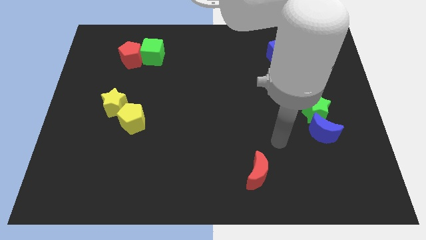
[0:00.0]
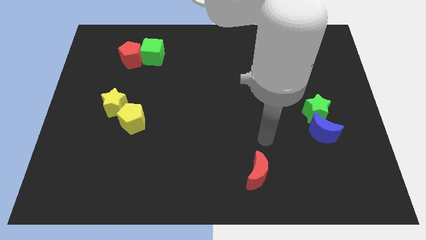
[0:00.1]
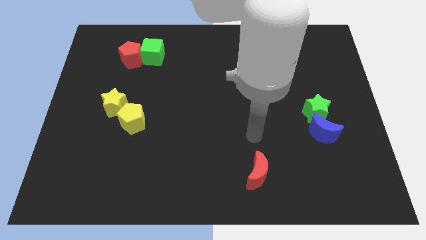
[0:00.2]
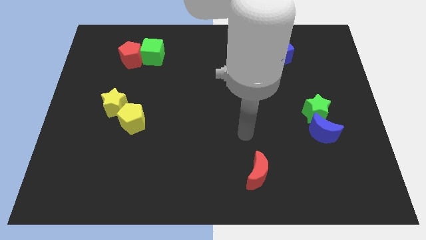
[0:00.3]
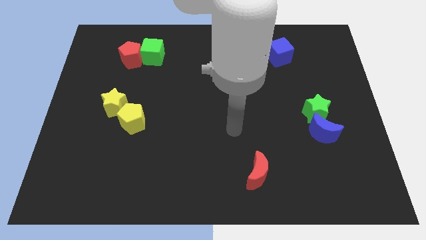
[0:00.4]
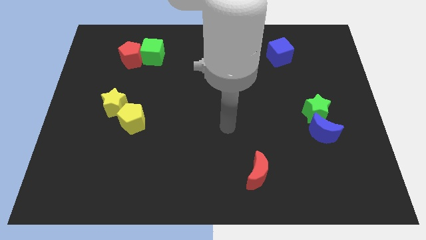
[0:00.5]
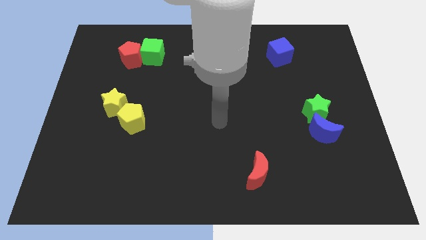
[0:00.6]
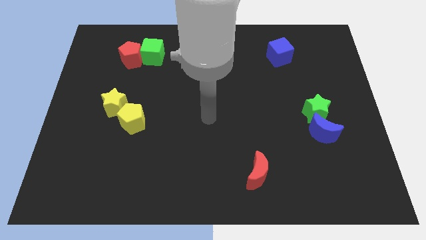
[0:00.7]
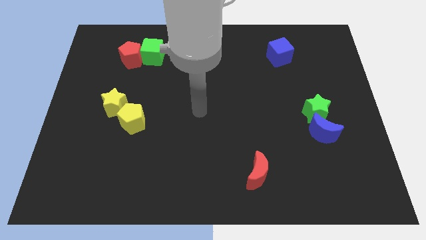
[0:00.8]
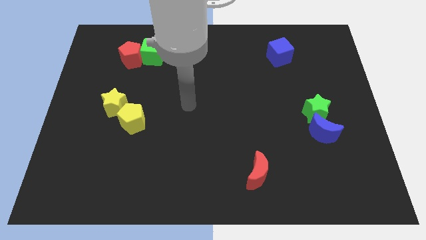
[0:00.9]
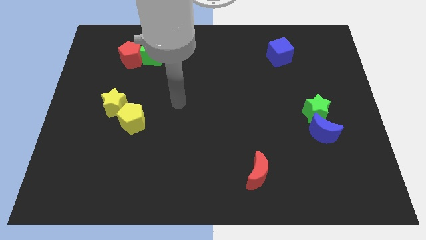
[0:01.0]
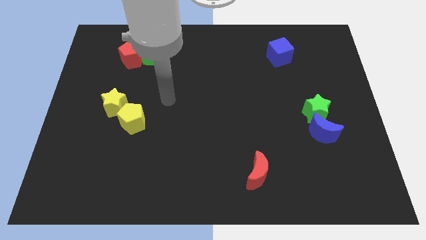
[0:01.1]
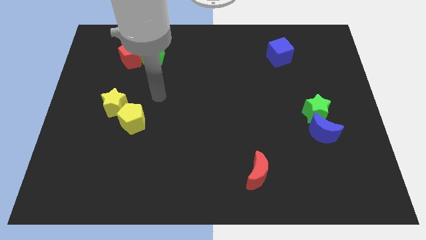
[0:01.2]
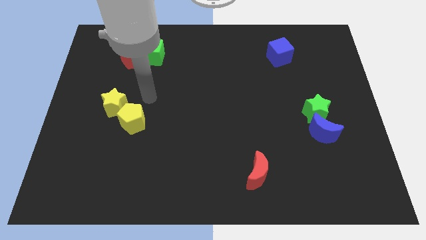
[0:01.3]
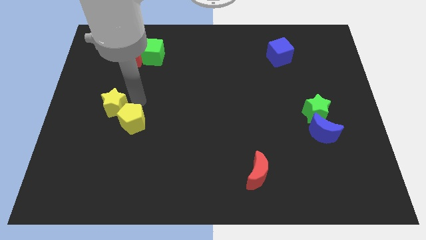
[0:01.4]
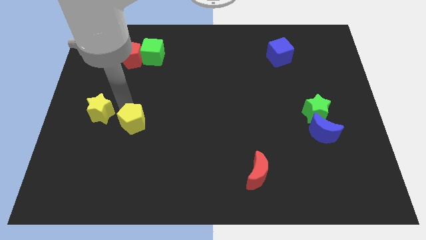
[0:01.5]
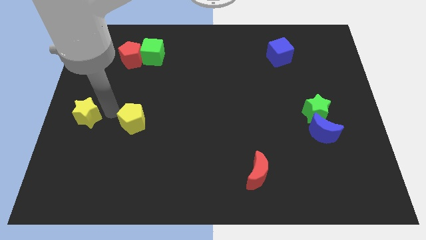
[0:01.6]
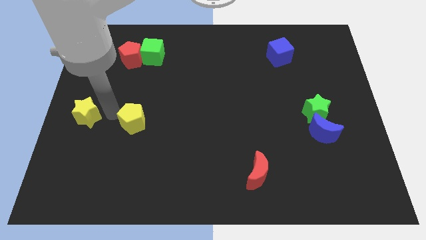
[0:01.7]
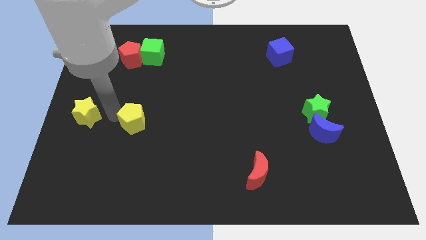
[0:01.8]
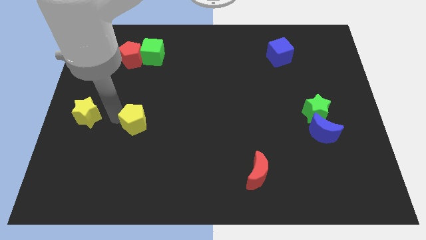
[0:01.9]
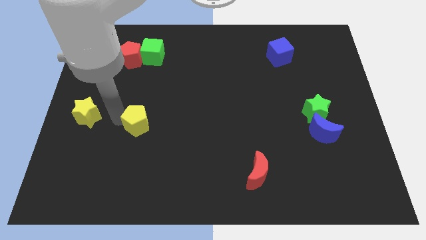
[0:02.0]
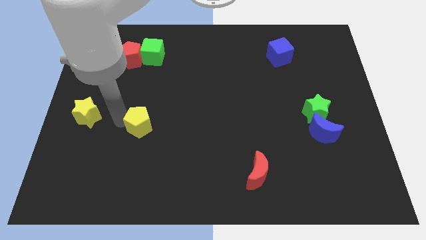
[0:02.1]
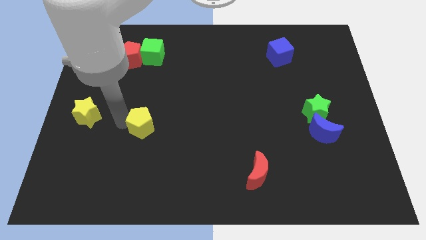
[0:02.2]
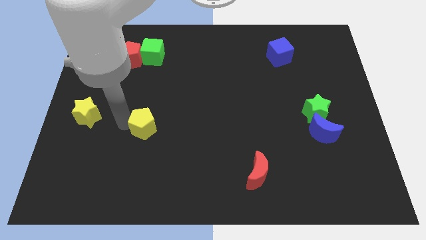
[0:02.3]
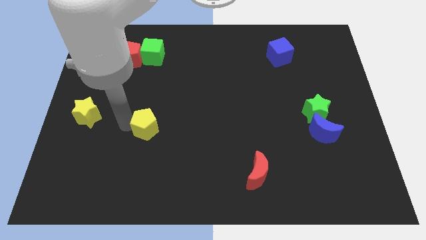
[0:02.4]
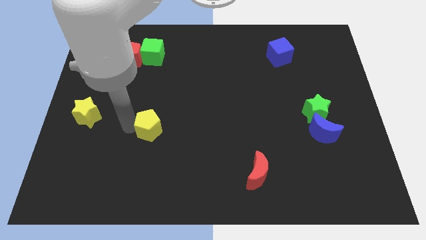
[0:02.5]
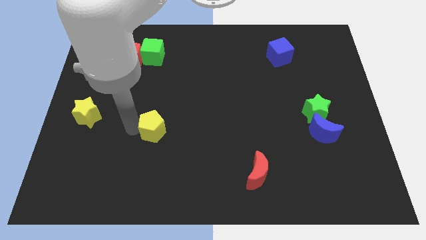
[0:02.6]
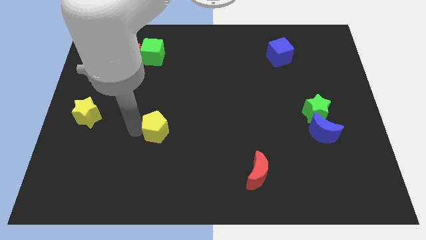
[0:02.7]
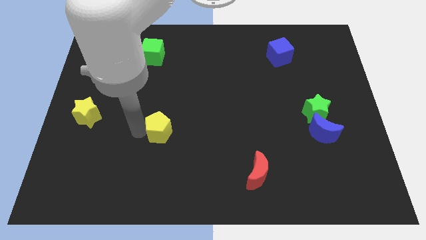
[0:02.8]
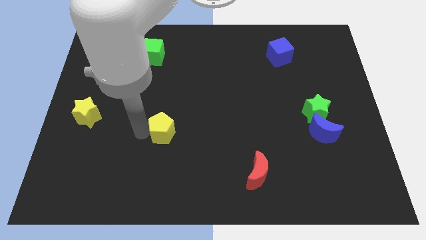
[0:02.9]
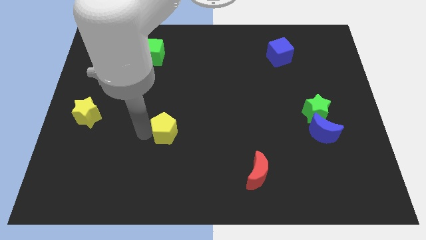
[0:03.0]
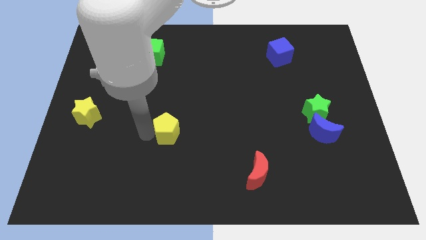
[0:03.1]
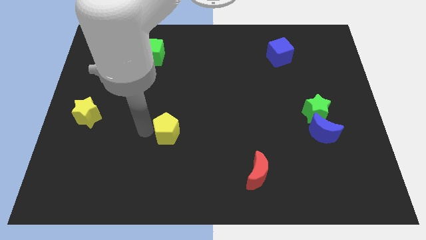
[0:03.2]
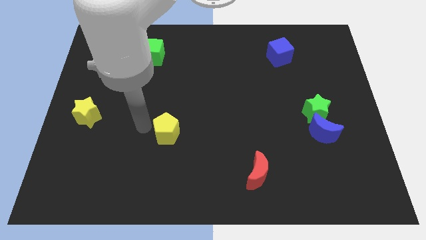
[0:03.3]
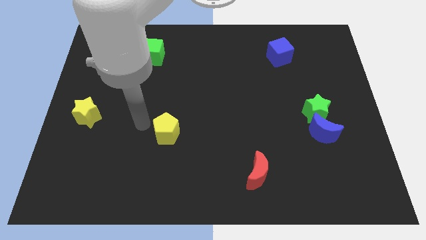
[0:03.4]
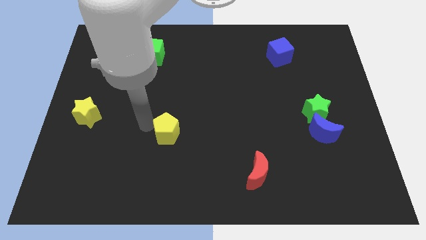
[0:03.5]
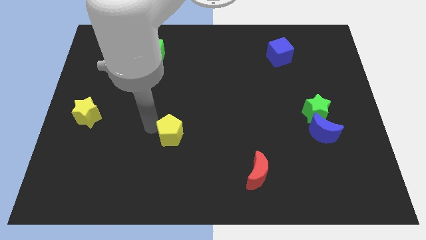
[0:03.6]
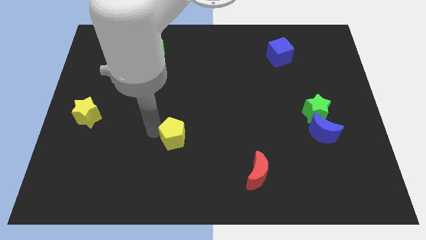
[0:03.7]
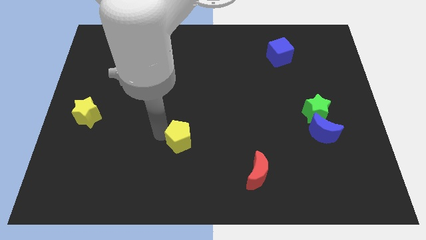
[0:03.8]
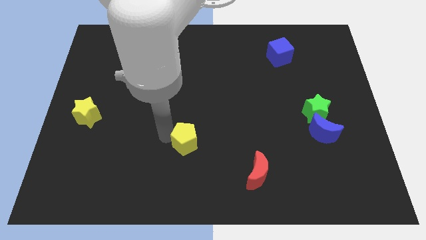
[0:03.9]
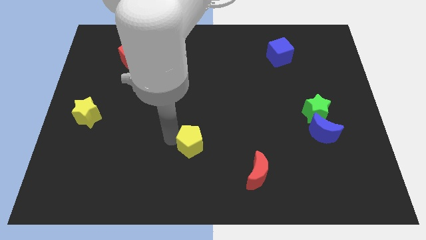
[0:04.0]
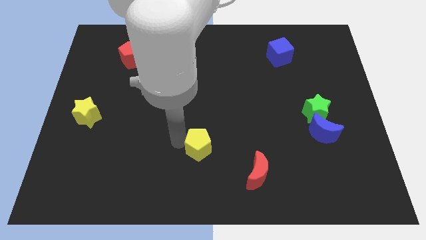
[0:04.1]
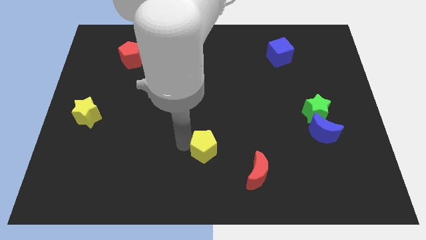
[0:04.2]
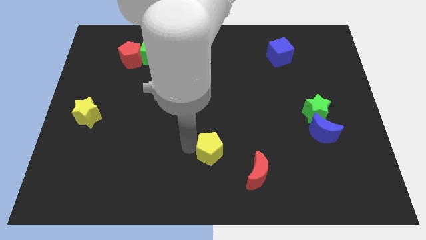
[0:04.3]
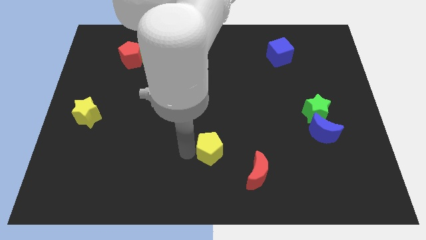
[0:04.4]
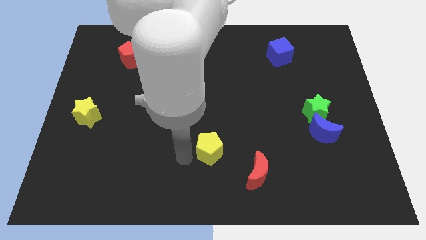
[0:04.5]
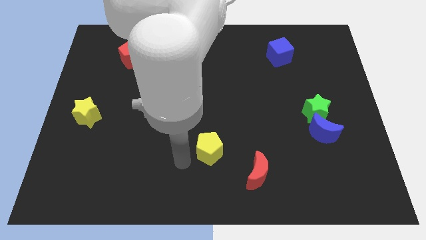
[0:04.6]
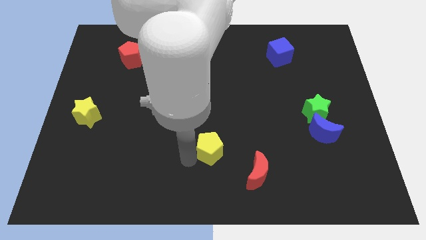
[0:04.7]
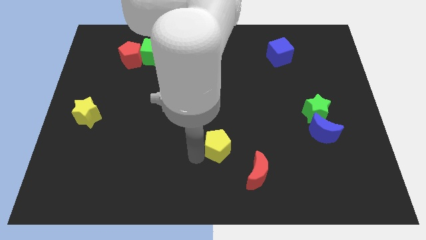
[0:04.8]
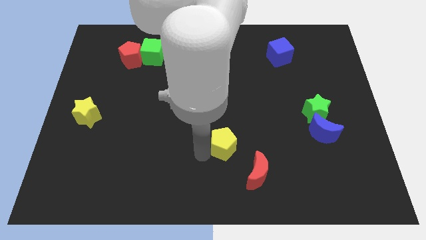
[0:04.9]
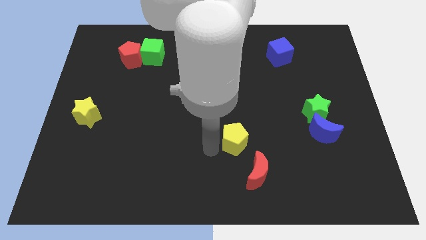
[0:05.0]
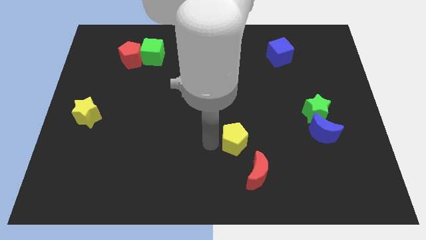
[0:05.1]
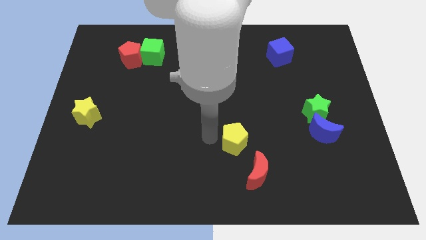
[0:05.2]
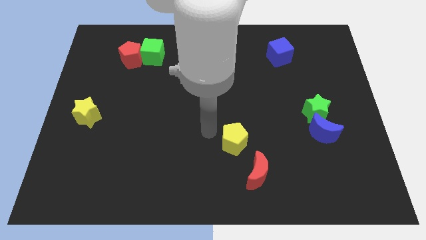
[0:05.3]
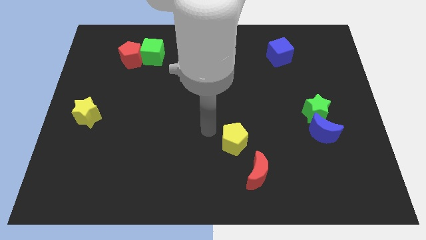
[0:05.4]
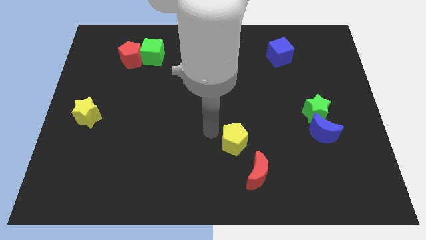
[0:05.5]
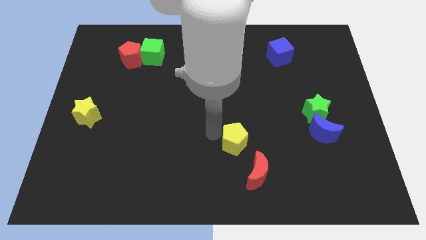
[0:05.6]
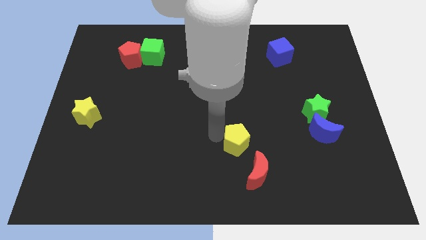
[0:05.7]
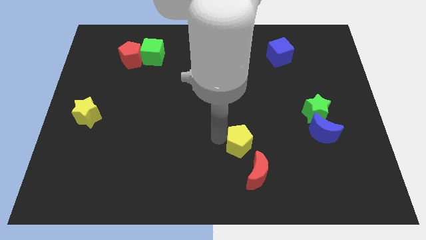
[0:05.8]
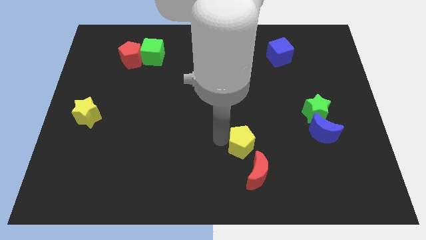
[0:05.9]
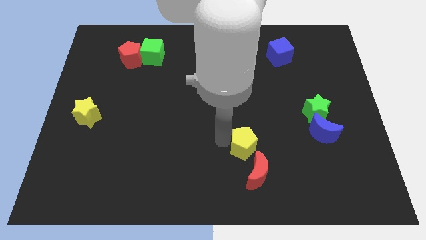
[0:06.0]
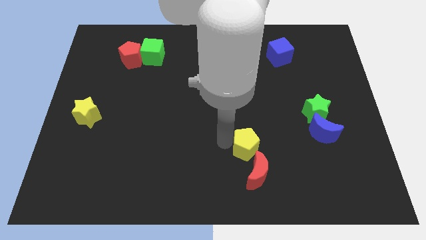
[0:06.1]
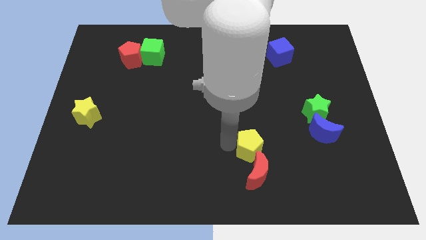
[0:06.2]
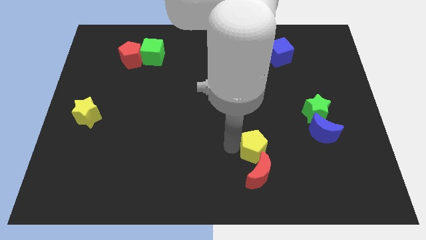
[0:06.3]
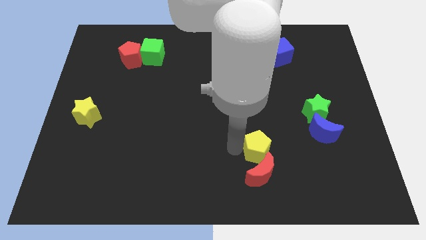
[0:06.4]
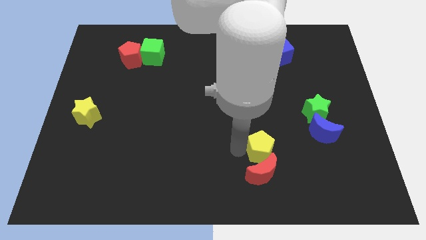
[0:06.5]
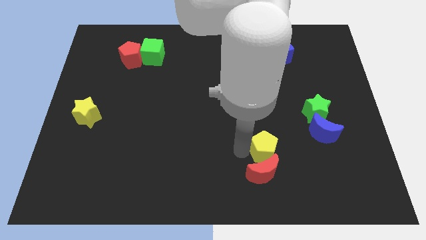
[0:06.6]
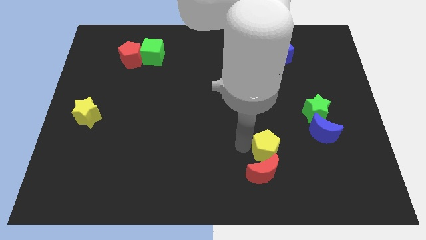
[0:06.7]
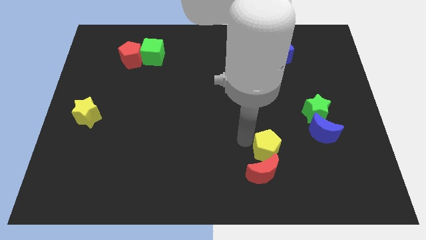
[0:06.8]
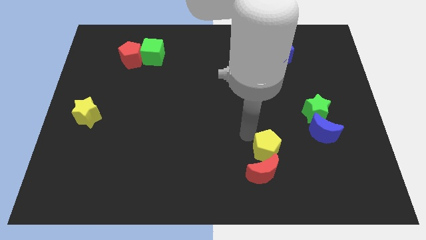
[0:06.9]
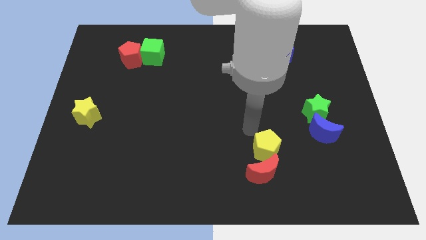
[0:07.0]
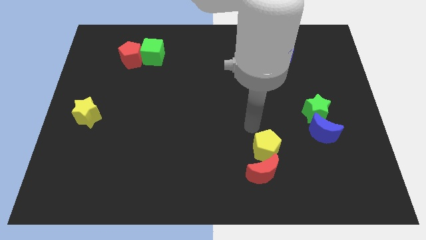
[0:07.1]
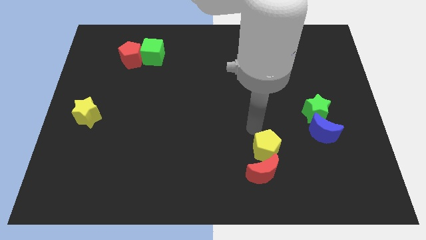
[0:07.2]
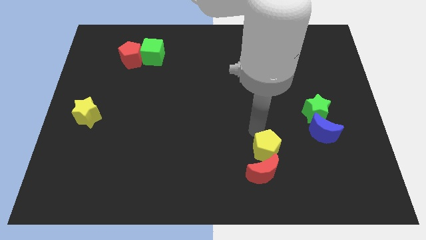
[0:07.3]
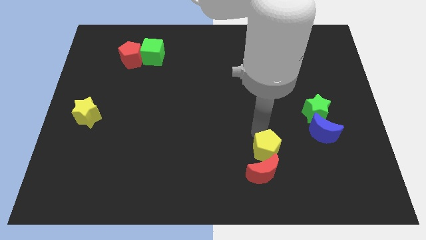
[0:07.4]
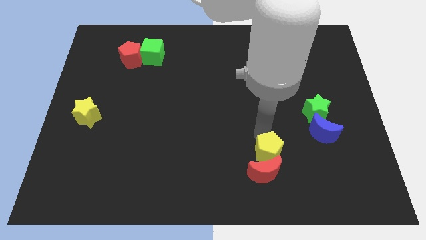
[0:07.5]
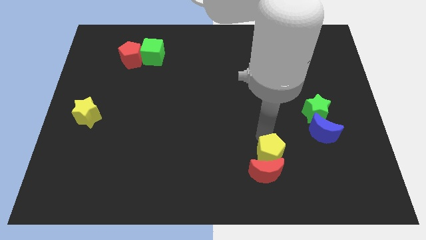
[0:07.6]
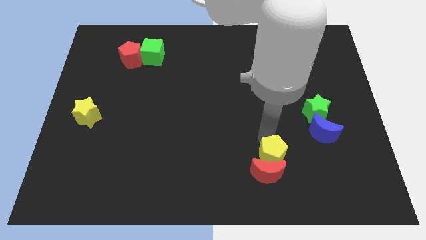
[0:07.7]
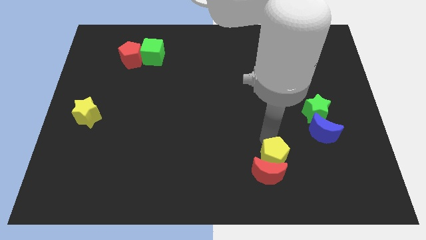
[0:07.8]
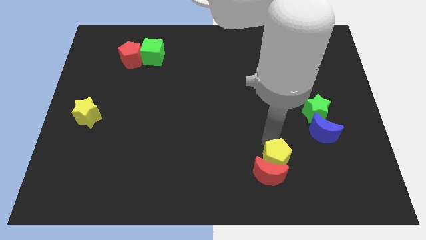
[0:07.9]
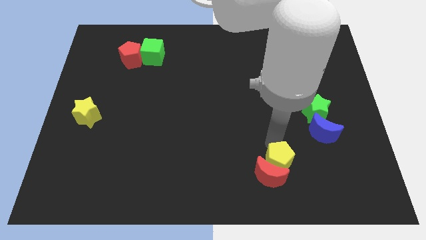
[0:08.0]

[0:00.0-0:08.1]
push the yellow pentagon right of the red moon

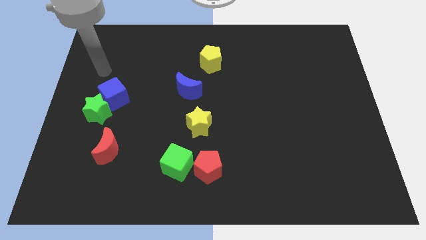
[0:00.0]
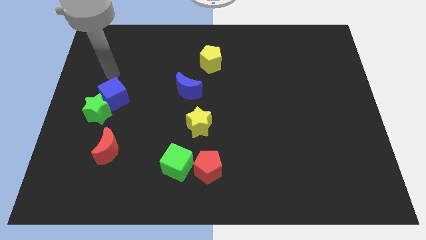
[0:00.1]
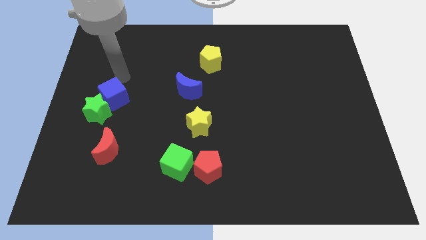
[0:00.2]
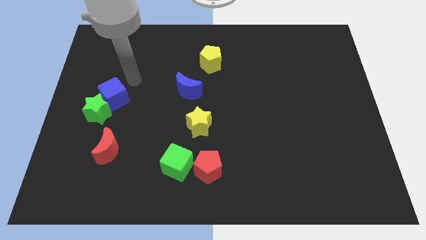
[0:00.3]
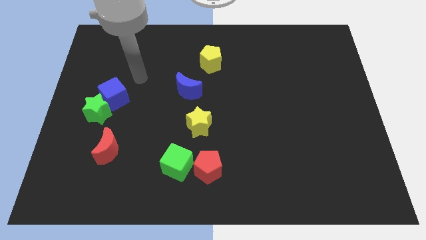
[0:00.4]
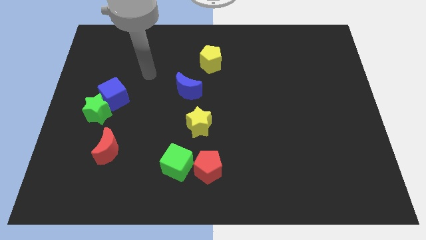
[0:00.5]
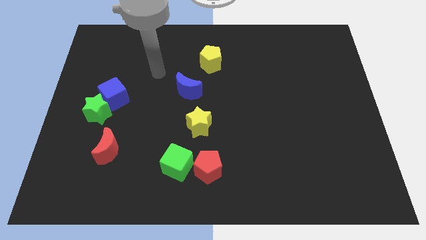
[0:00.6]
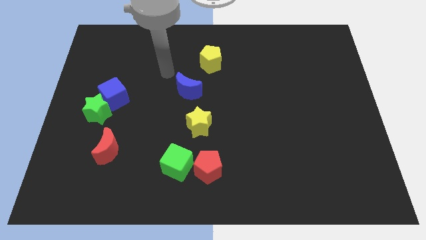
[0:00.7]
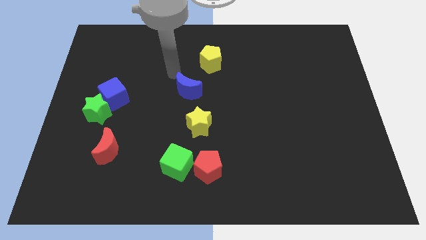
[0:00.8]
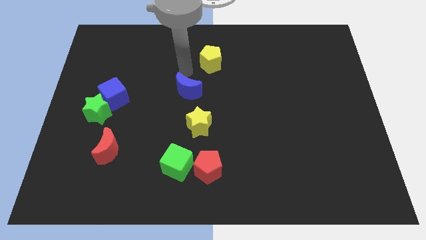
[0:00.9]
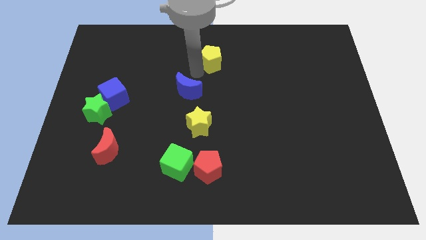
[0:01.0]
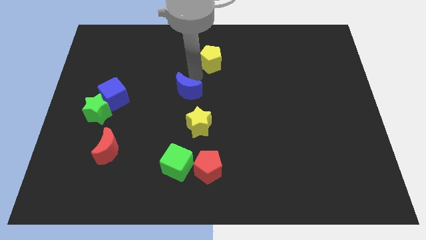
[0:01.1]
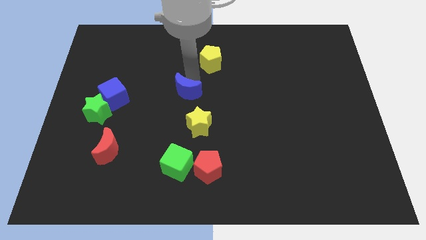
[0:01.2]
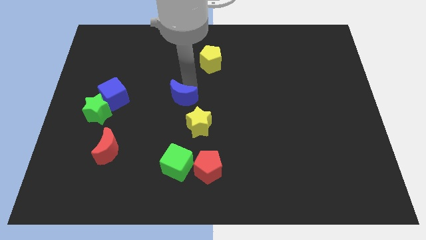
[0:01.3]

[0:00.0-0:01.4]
push the blue moon to the top left side of the yellow star
